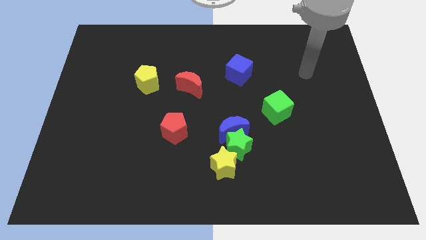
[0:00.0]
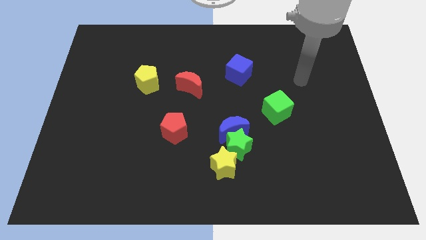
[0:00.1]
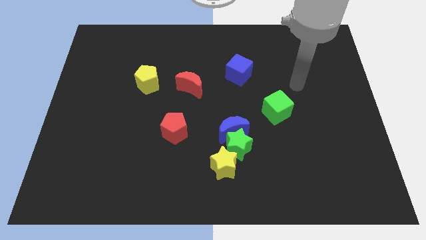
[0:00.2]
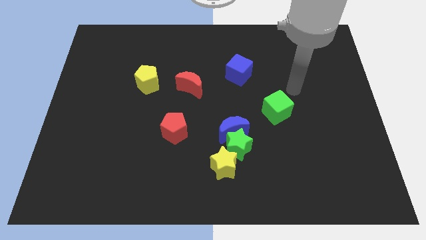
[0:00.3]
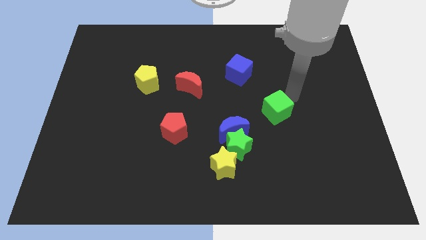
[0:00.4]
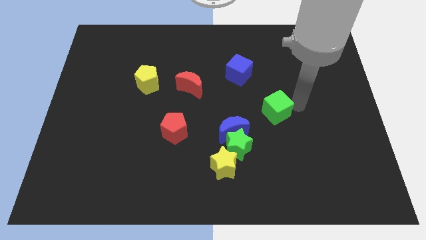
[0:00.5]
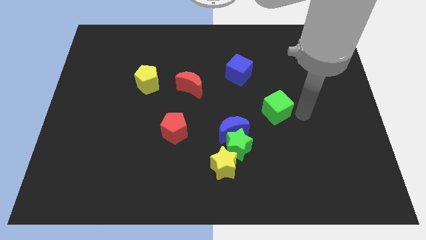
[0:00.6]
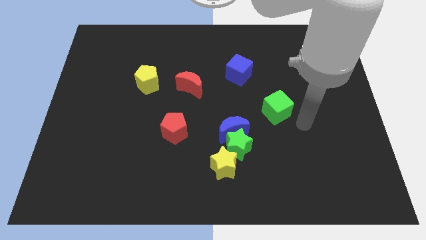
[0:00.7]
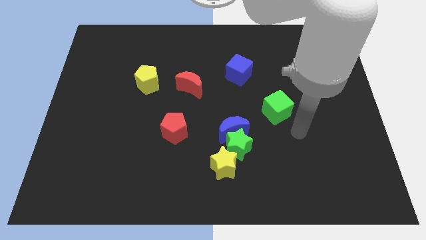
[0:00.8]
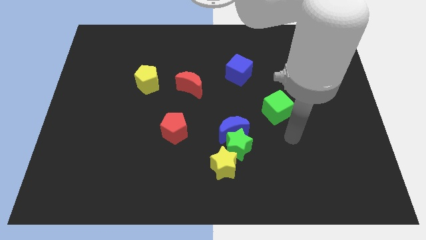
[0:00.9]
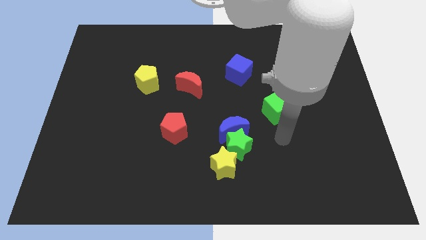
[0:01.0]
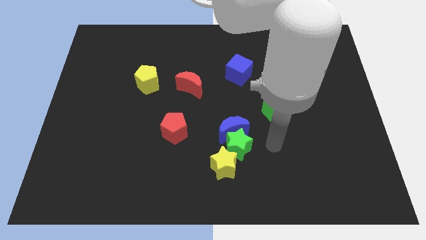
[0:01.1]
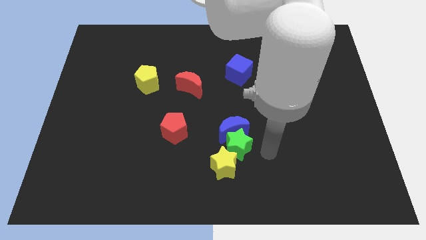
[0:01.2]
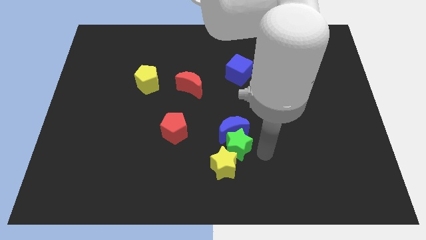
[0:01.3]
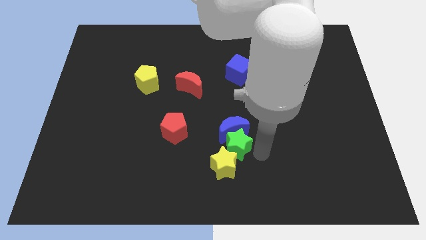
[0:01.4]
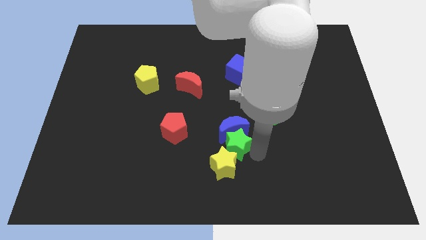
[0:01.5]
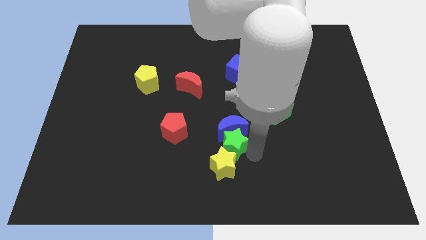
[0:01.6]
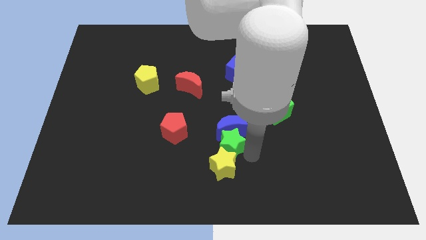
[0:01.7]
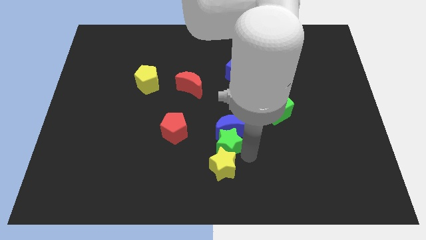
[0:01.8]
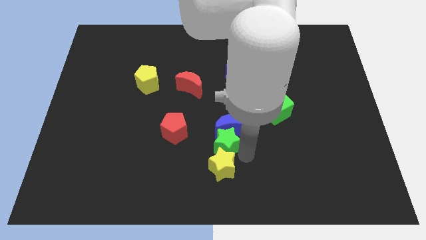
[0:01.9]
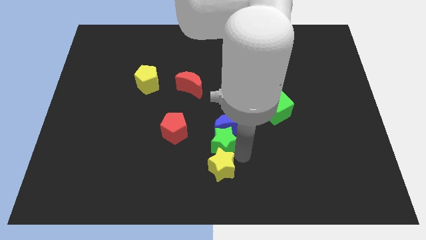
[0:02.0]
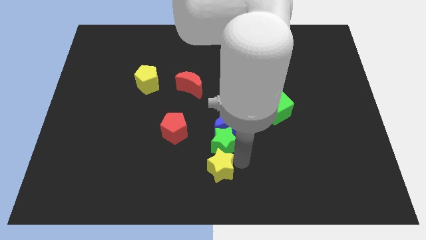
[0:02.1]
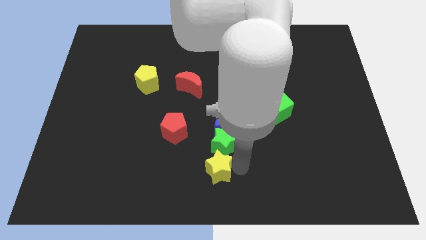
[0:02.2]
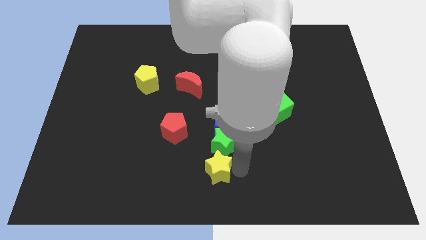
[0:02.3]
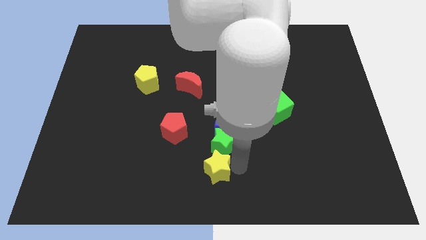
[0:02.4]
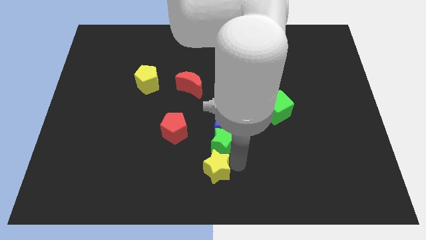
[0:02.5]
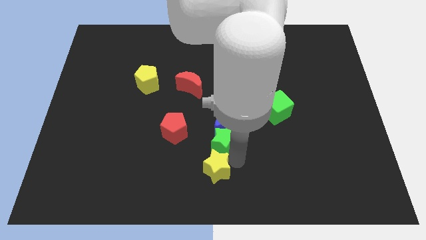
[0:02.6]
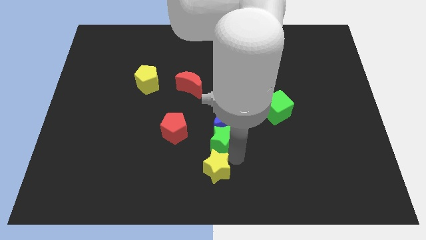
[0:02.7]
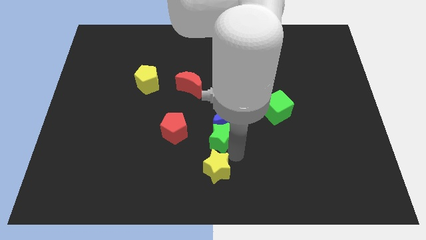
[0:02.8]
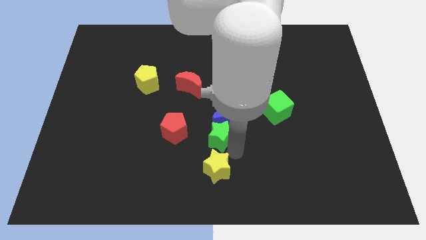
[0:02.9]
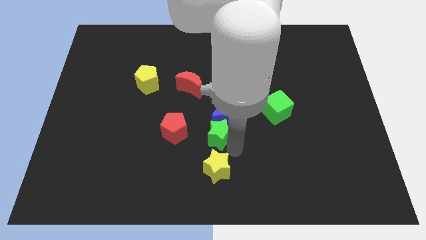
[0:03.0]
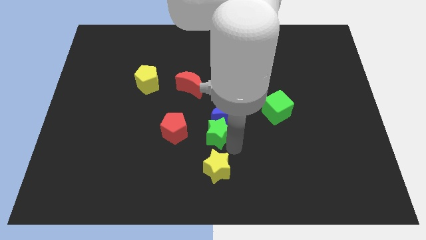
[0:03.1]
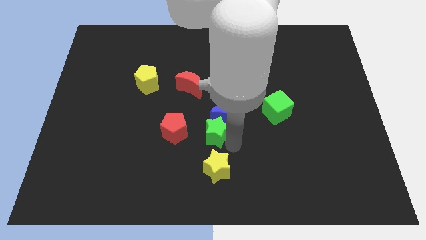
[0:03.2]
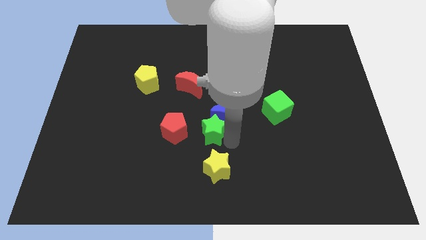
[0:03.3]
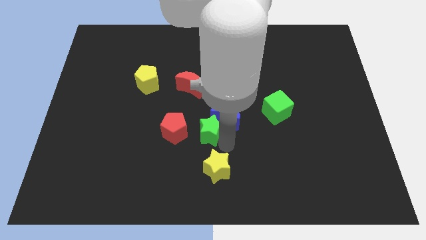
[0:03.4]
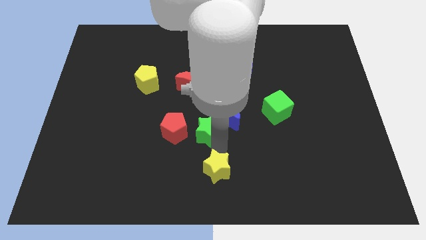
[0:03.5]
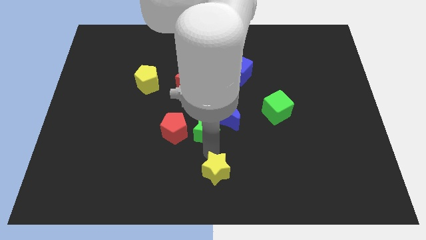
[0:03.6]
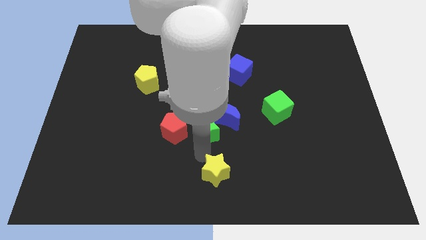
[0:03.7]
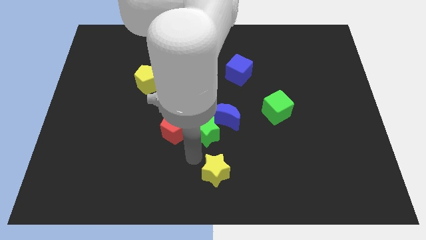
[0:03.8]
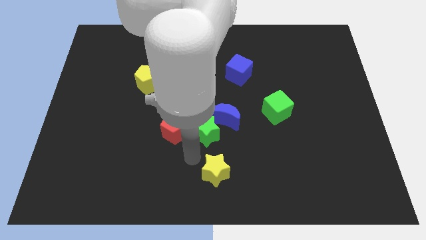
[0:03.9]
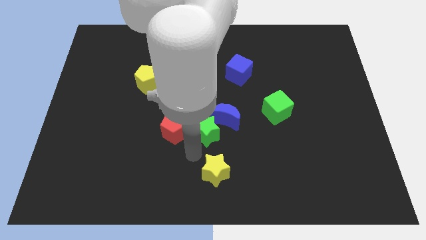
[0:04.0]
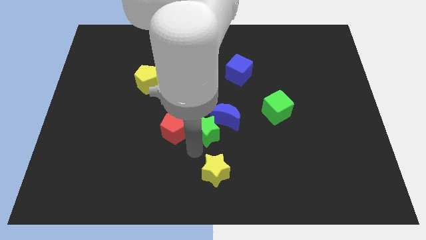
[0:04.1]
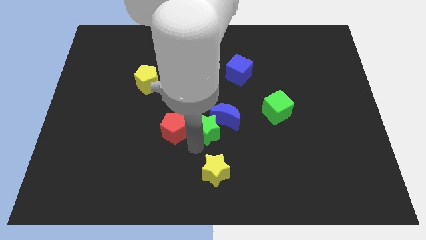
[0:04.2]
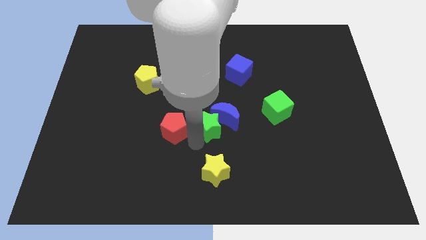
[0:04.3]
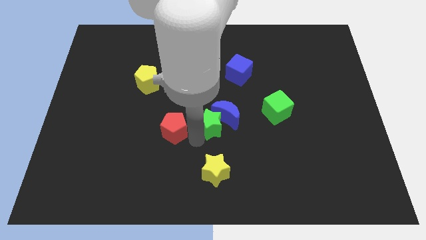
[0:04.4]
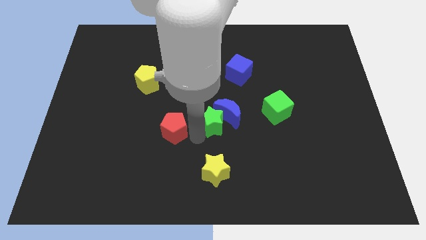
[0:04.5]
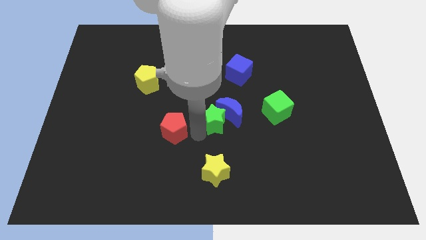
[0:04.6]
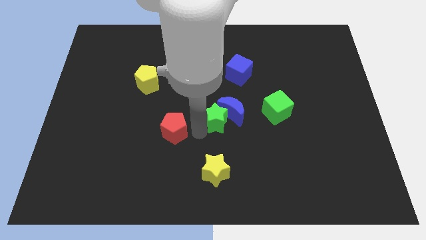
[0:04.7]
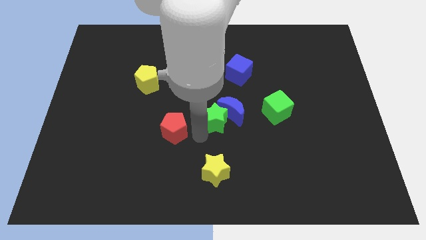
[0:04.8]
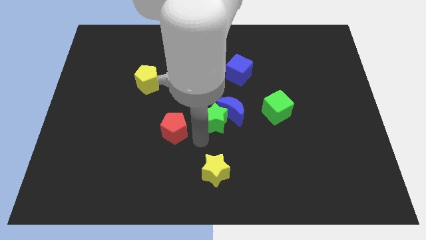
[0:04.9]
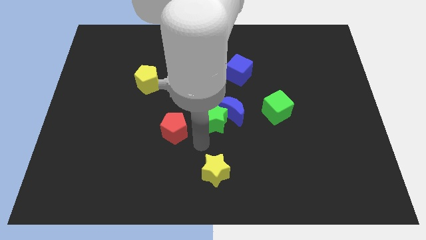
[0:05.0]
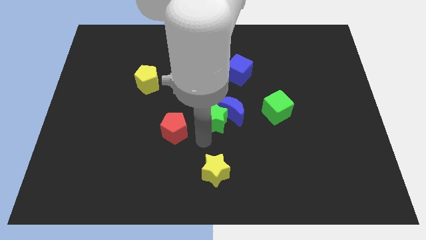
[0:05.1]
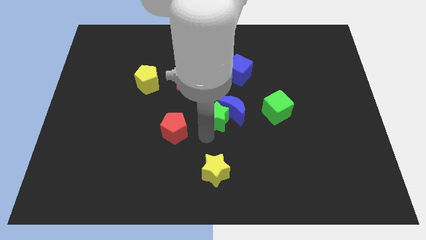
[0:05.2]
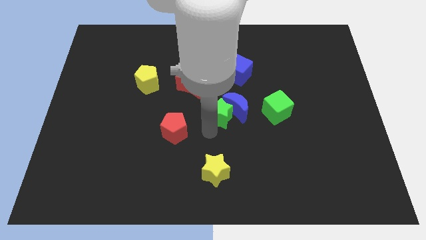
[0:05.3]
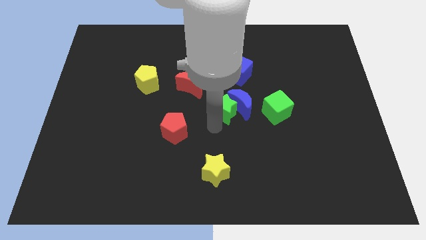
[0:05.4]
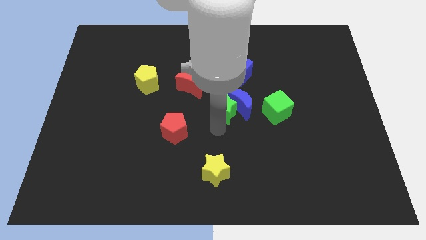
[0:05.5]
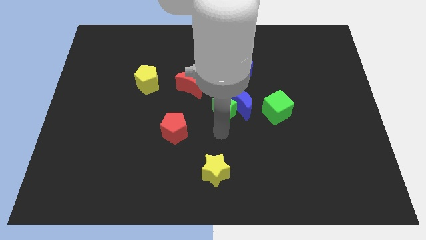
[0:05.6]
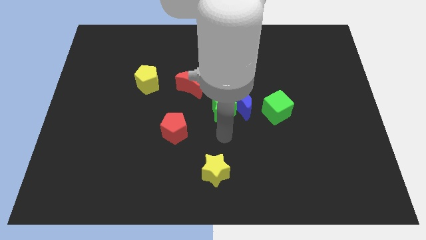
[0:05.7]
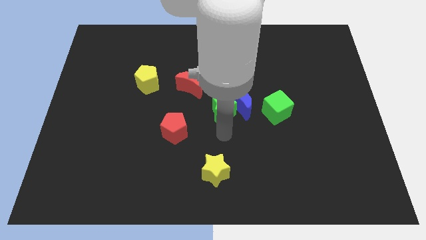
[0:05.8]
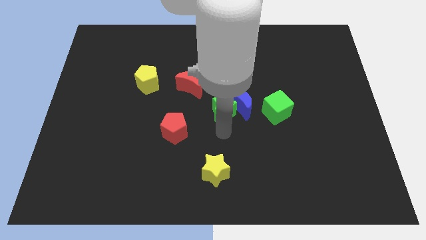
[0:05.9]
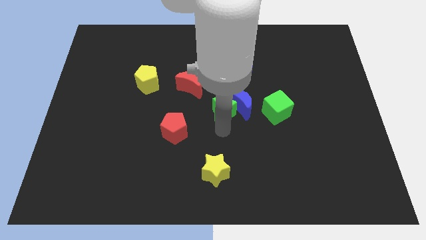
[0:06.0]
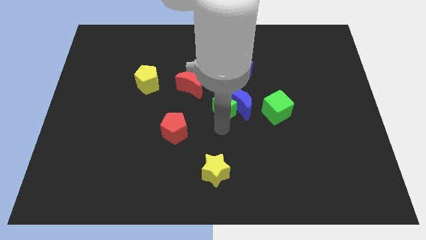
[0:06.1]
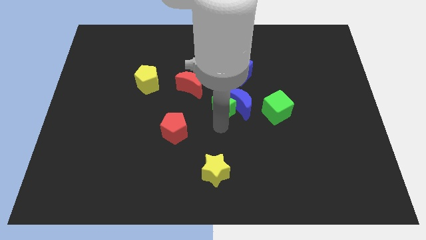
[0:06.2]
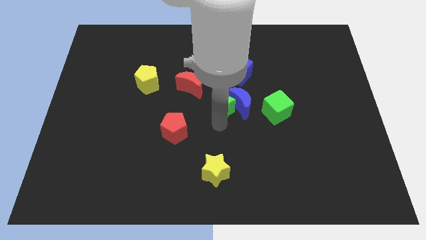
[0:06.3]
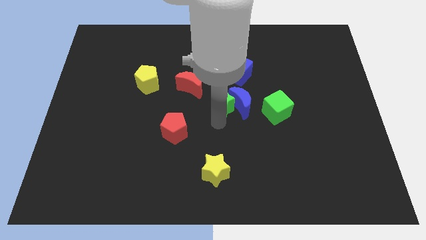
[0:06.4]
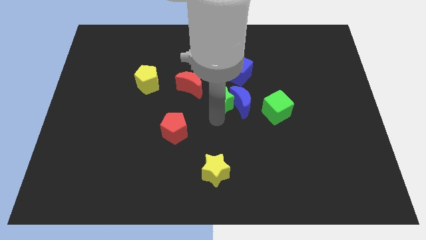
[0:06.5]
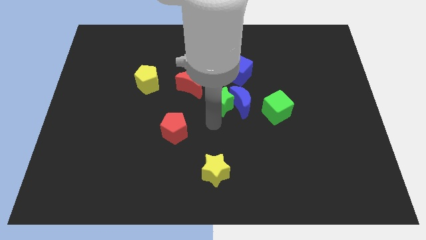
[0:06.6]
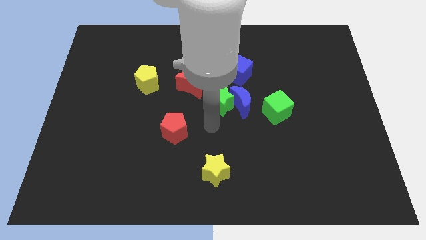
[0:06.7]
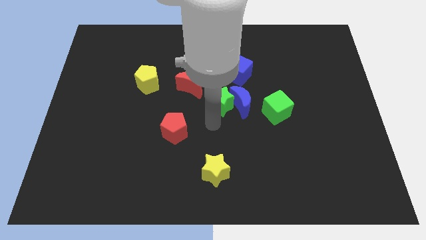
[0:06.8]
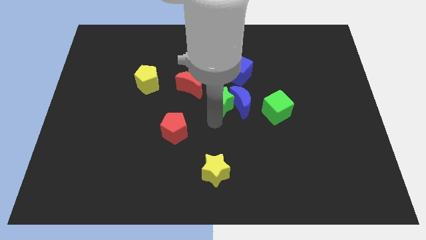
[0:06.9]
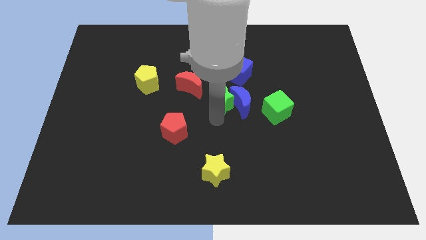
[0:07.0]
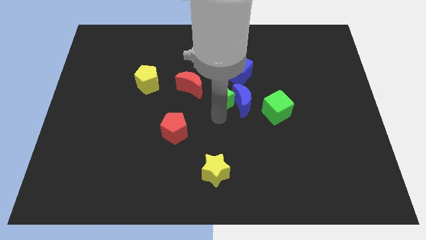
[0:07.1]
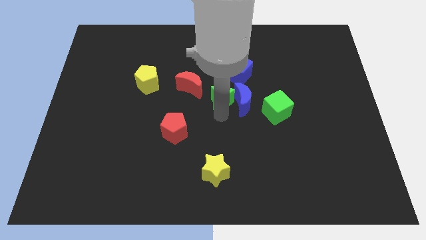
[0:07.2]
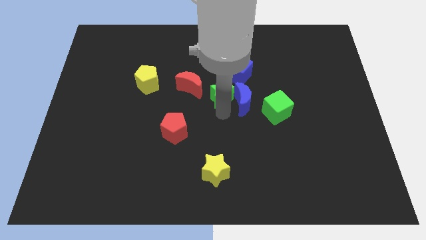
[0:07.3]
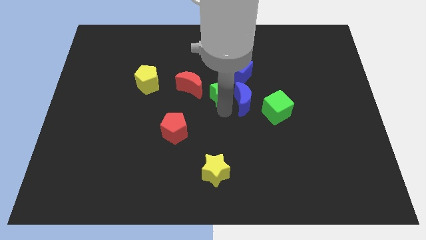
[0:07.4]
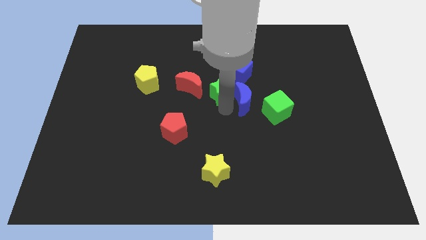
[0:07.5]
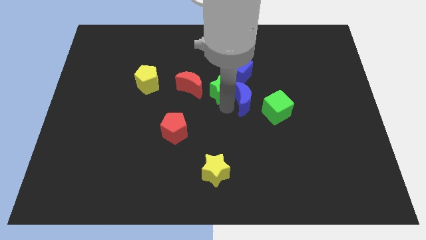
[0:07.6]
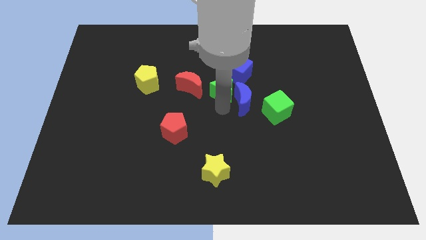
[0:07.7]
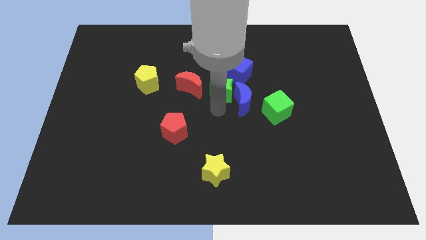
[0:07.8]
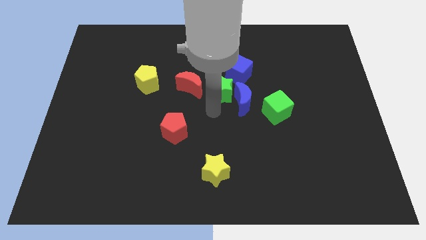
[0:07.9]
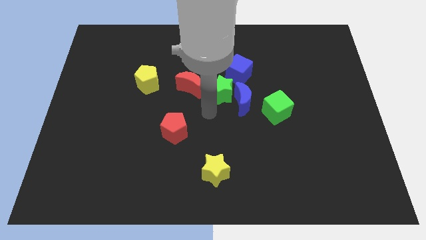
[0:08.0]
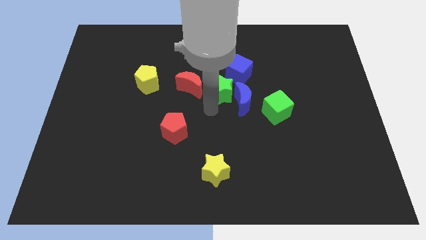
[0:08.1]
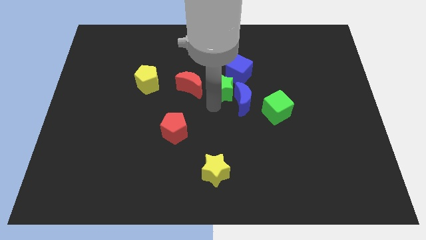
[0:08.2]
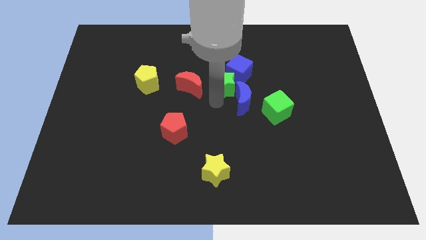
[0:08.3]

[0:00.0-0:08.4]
move the green star to the blue cube
